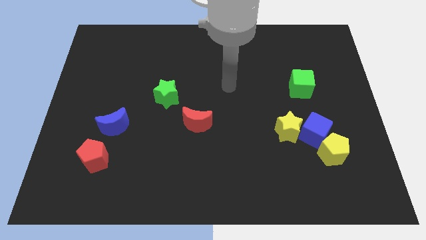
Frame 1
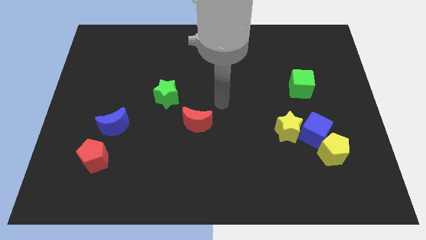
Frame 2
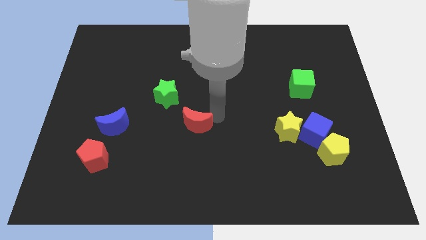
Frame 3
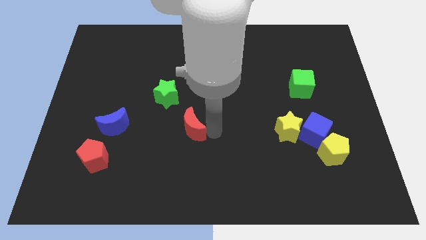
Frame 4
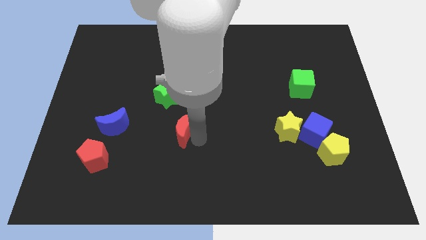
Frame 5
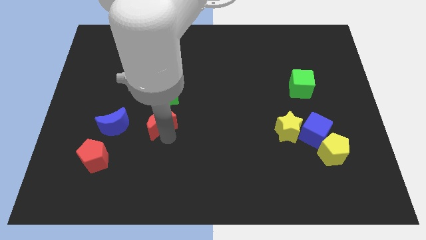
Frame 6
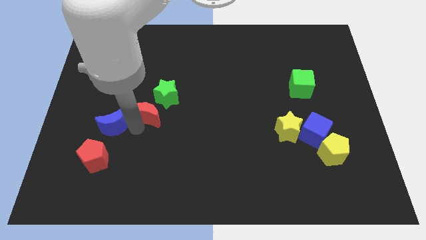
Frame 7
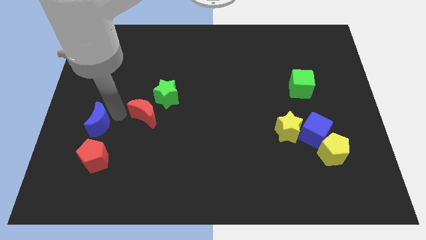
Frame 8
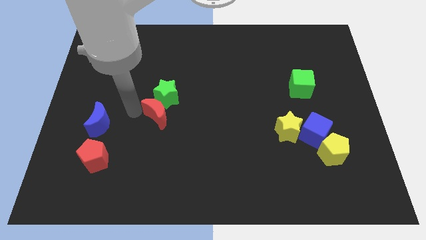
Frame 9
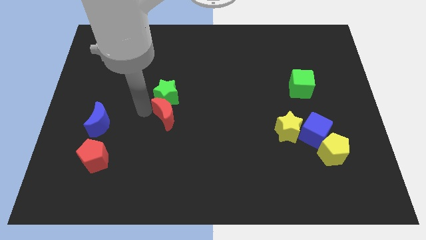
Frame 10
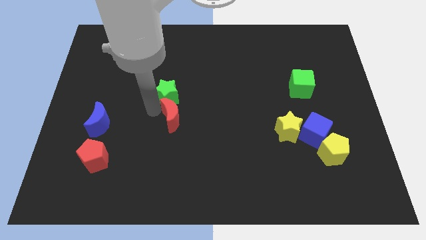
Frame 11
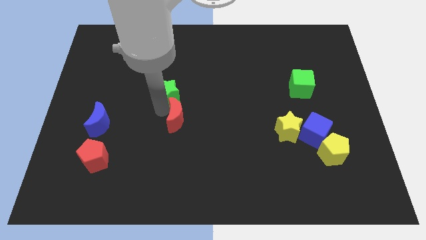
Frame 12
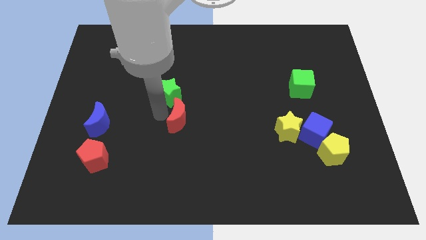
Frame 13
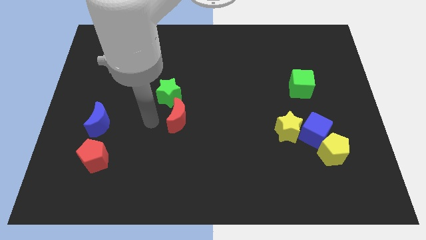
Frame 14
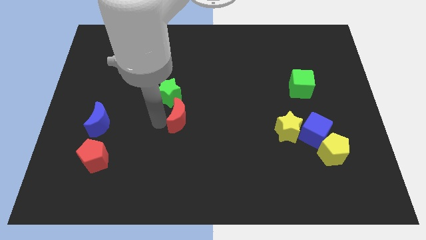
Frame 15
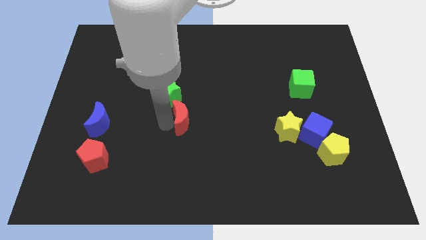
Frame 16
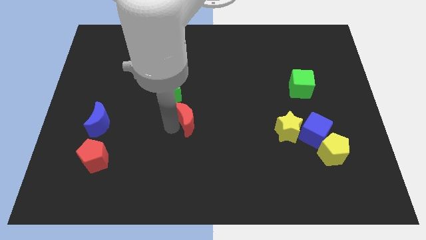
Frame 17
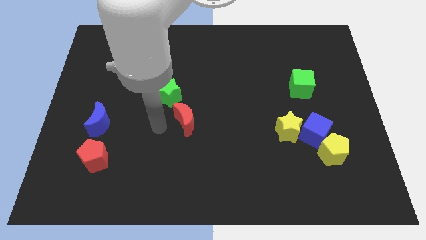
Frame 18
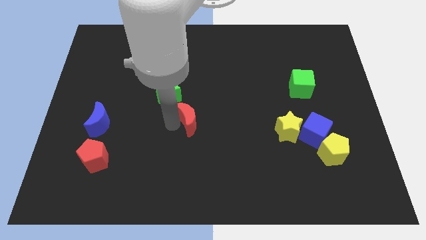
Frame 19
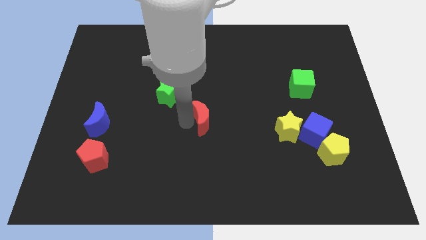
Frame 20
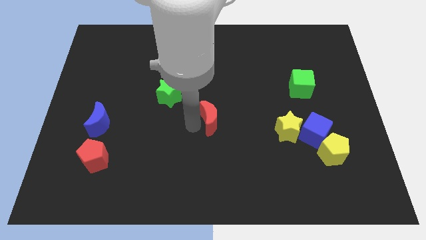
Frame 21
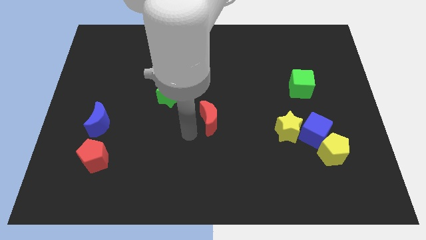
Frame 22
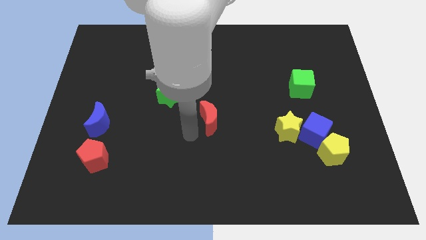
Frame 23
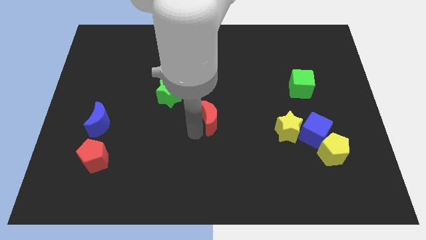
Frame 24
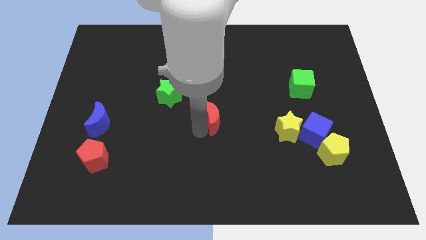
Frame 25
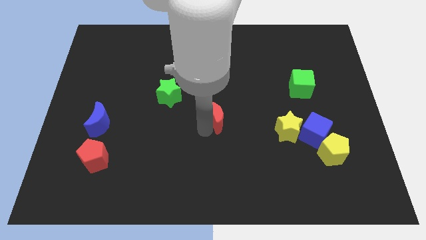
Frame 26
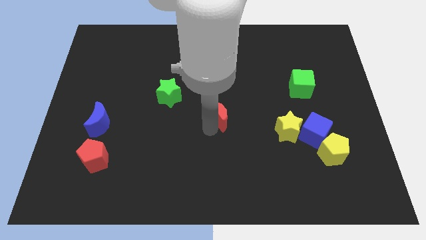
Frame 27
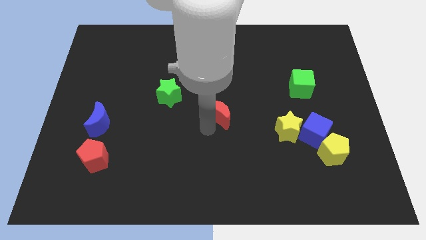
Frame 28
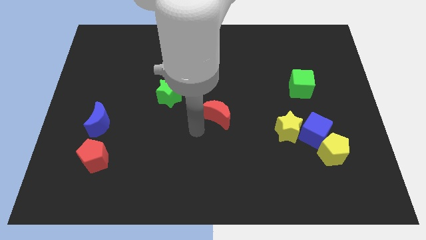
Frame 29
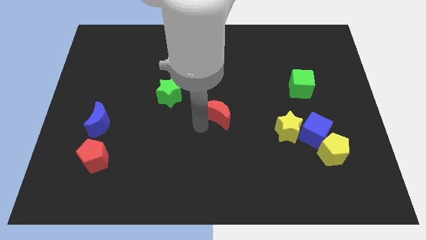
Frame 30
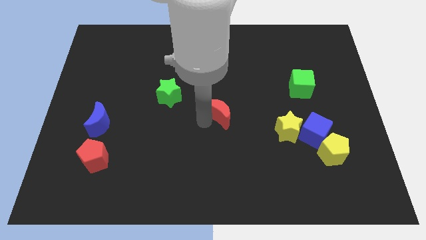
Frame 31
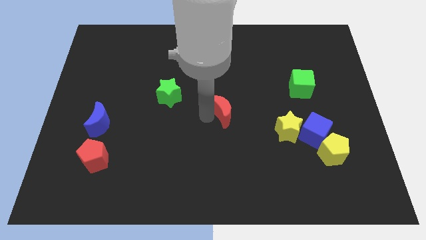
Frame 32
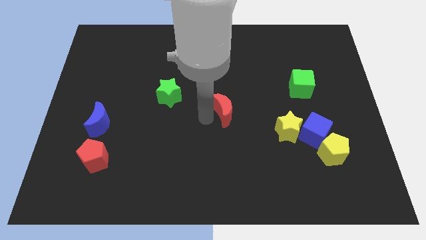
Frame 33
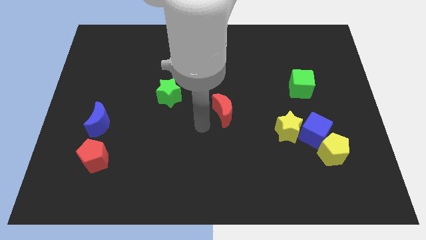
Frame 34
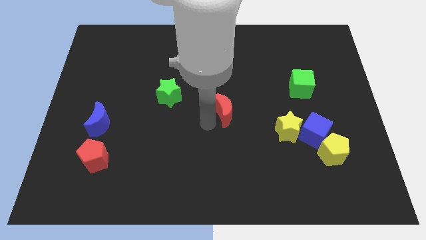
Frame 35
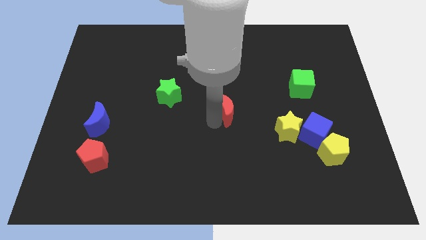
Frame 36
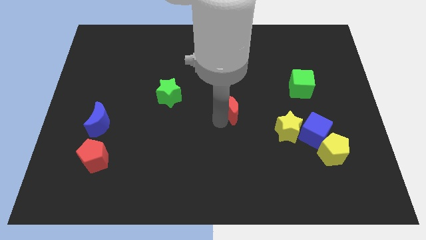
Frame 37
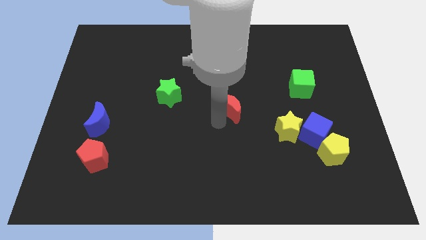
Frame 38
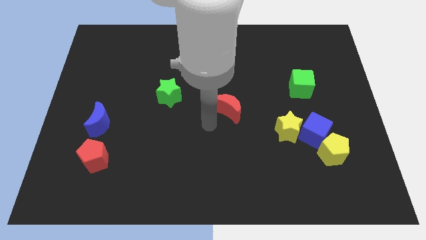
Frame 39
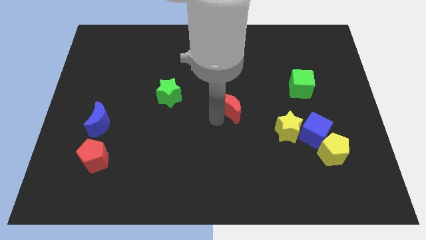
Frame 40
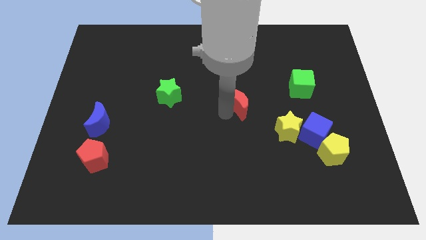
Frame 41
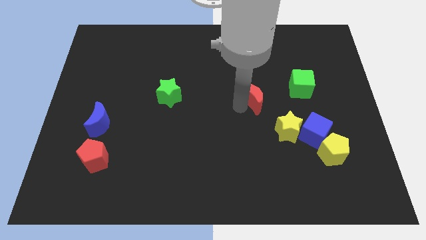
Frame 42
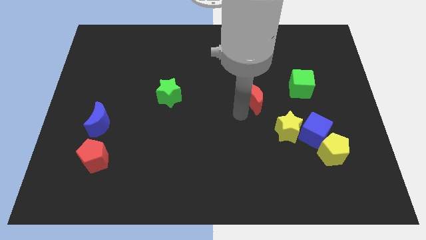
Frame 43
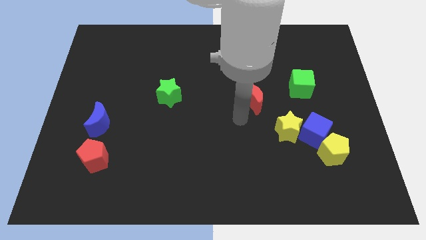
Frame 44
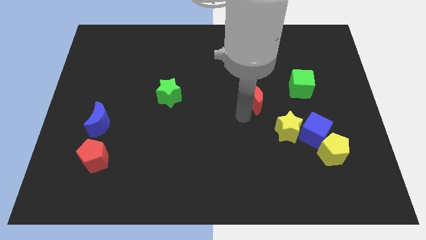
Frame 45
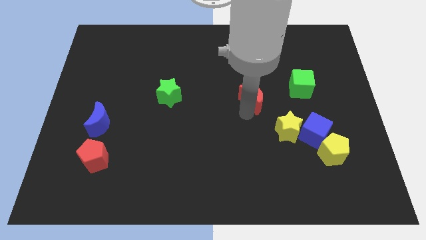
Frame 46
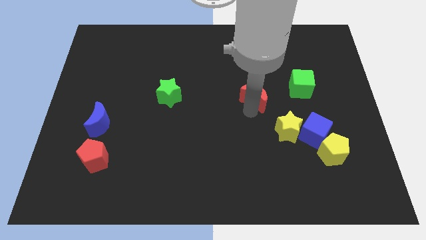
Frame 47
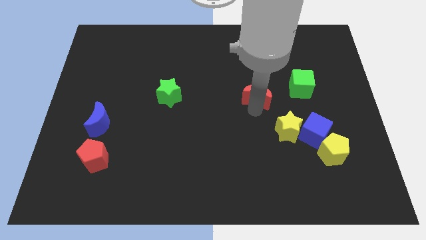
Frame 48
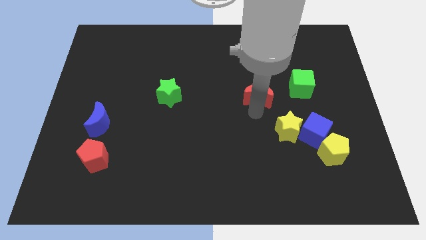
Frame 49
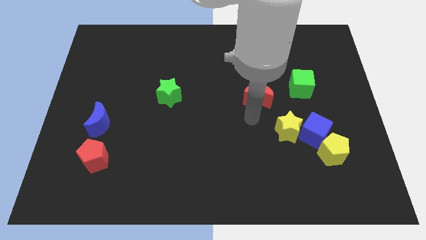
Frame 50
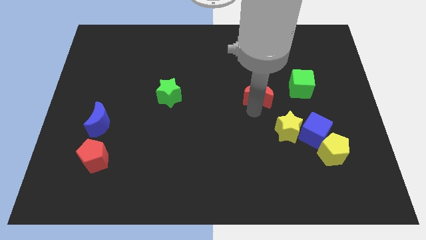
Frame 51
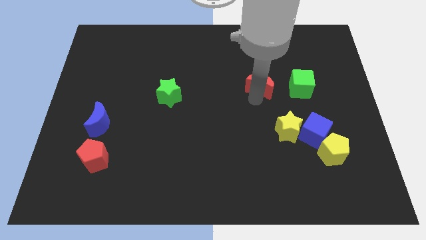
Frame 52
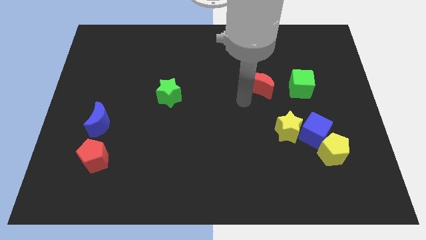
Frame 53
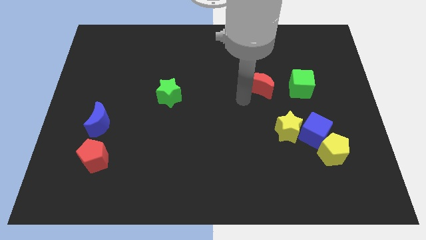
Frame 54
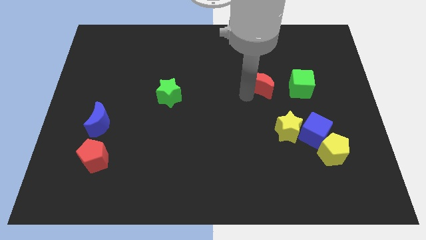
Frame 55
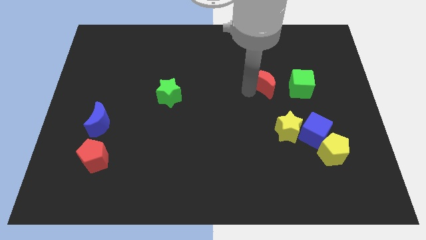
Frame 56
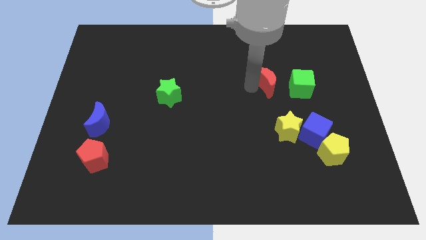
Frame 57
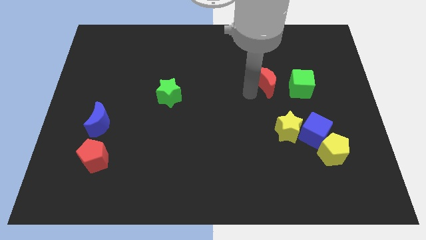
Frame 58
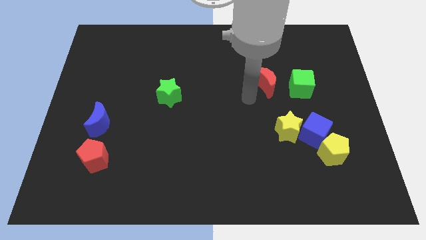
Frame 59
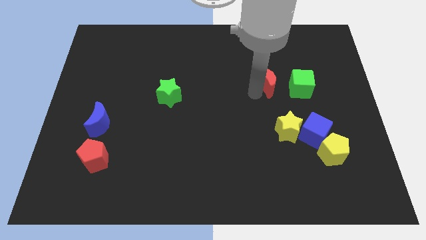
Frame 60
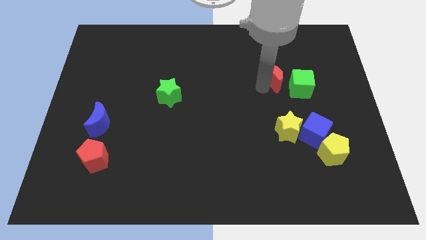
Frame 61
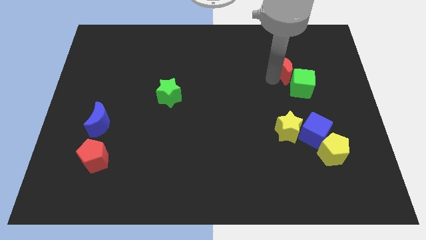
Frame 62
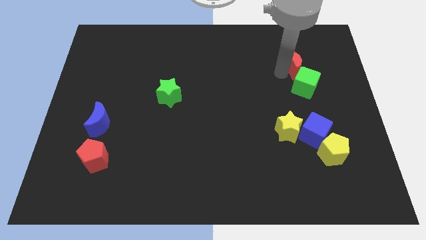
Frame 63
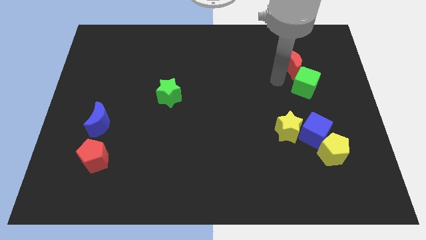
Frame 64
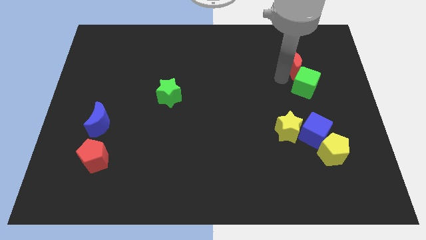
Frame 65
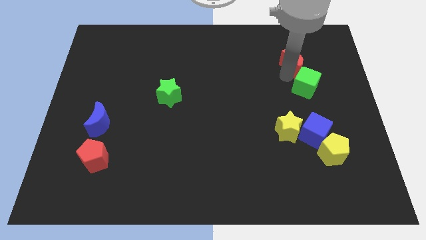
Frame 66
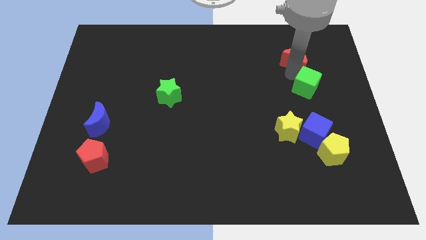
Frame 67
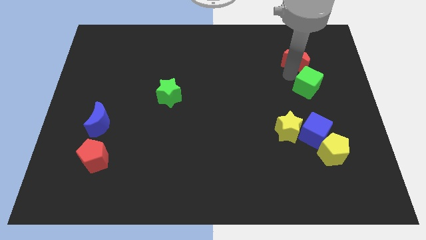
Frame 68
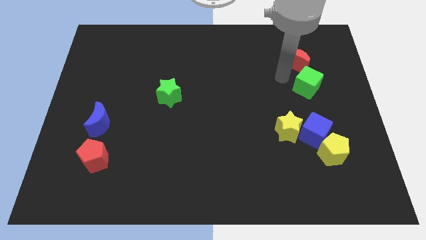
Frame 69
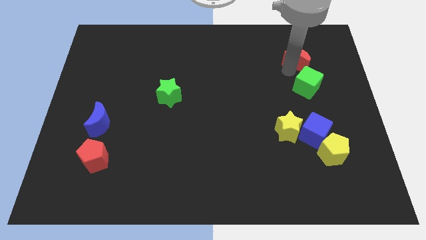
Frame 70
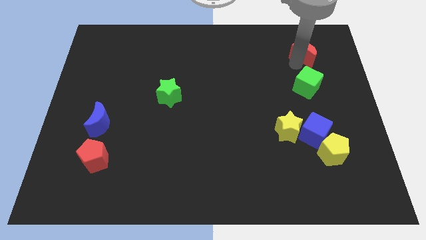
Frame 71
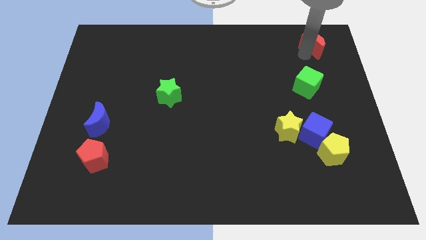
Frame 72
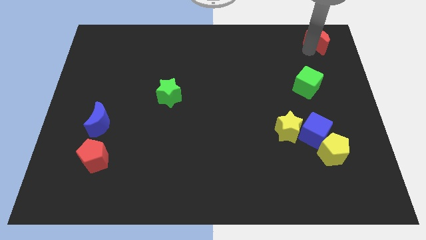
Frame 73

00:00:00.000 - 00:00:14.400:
put the red moon to the upper right corner
